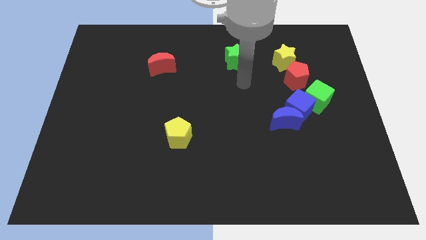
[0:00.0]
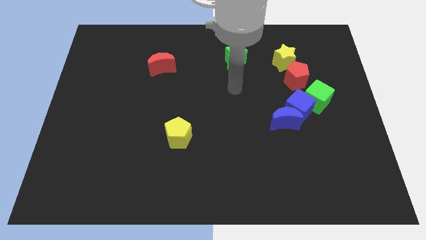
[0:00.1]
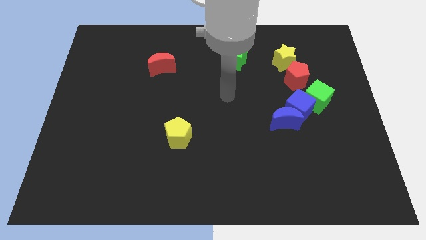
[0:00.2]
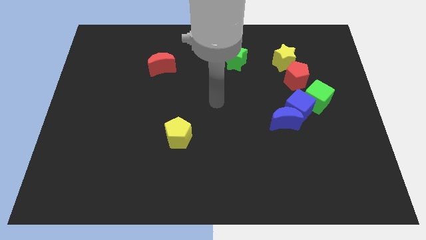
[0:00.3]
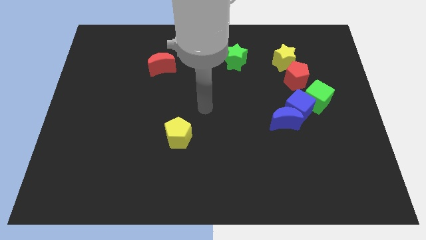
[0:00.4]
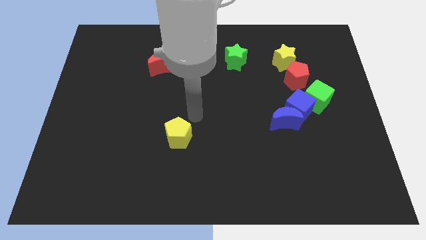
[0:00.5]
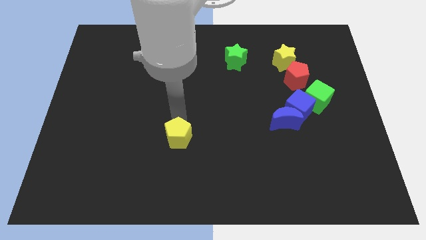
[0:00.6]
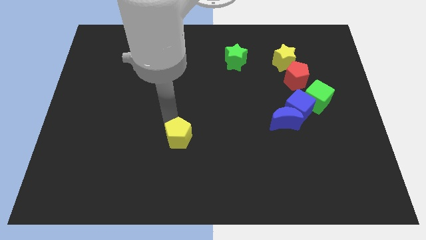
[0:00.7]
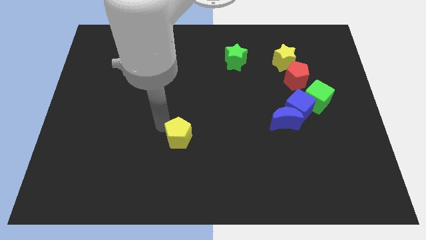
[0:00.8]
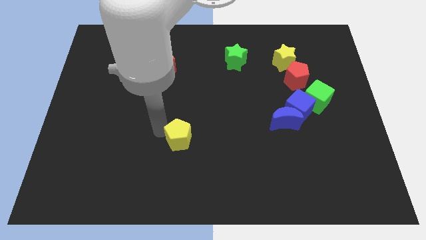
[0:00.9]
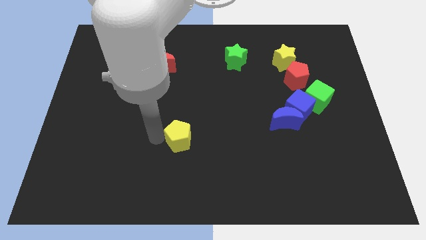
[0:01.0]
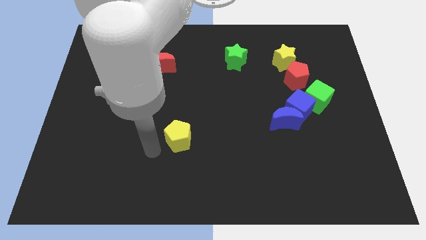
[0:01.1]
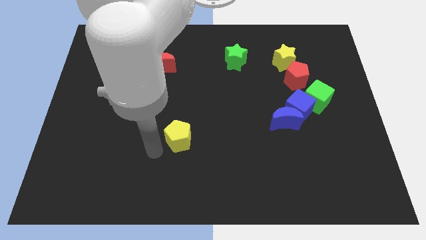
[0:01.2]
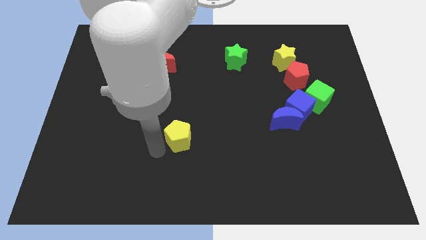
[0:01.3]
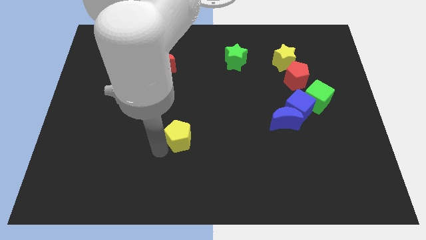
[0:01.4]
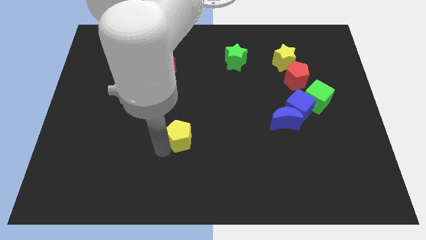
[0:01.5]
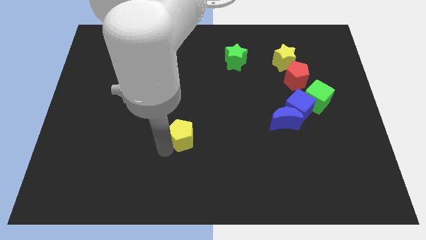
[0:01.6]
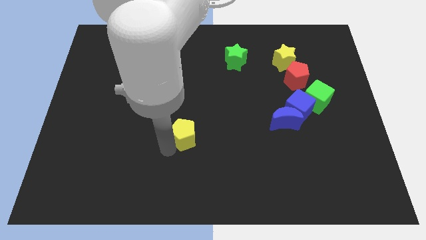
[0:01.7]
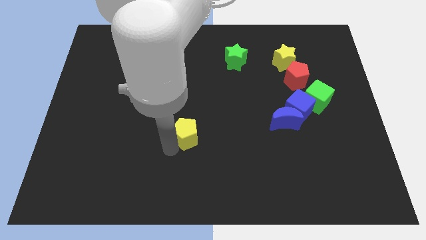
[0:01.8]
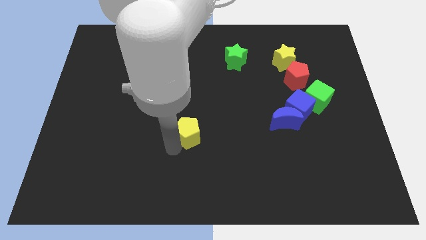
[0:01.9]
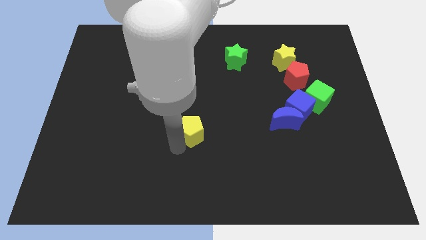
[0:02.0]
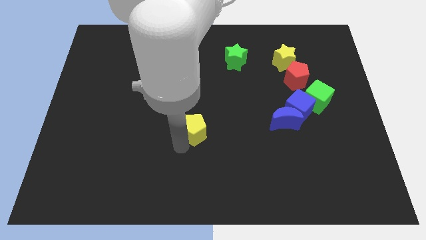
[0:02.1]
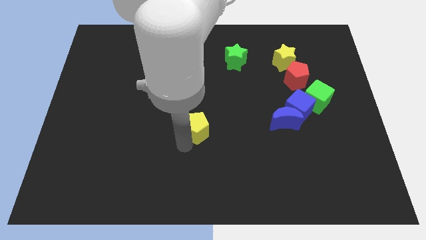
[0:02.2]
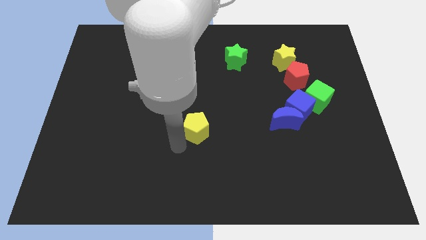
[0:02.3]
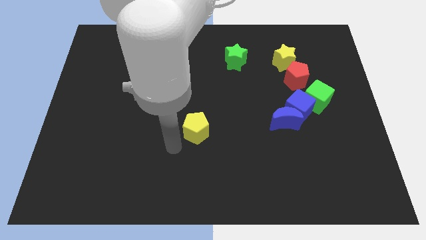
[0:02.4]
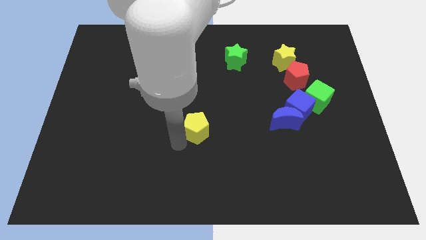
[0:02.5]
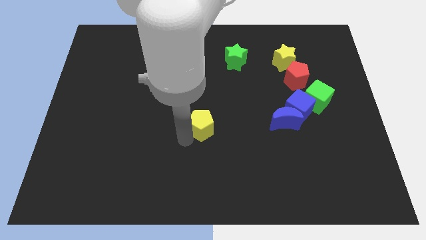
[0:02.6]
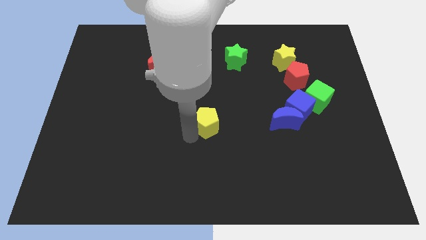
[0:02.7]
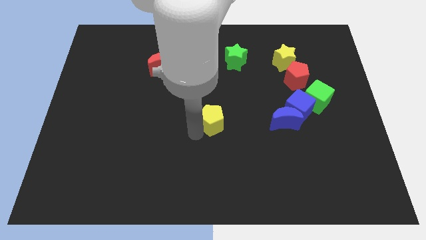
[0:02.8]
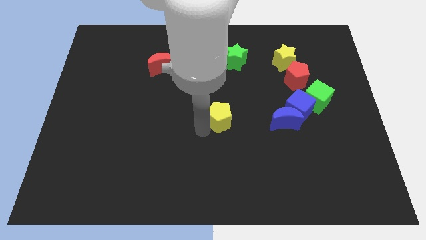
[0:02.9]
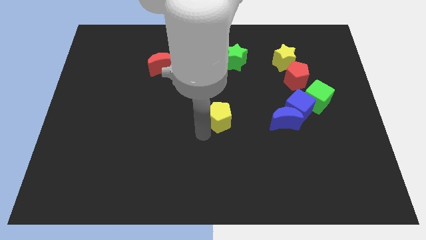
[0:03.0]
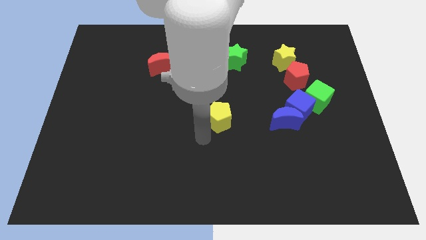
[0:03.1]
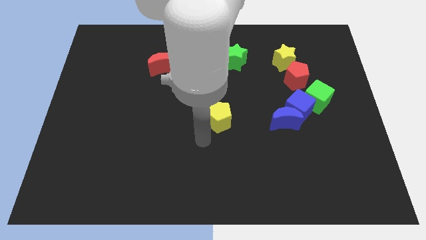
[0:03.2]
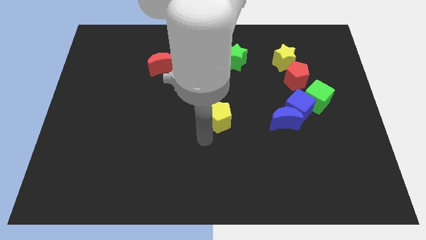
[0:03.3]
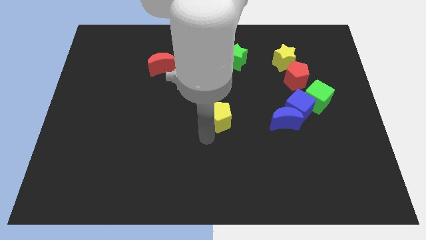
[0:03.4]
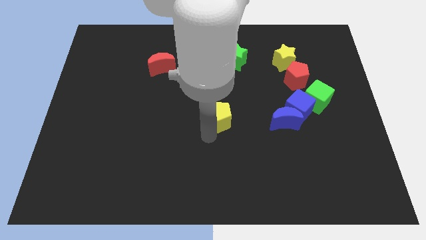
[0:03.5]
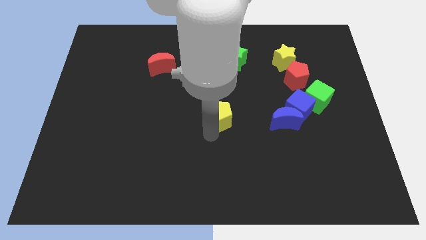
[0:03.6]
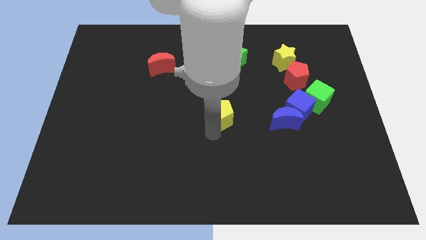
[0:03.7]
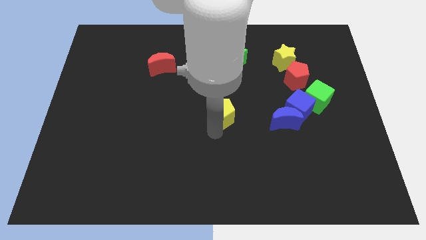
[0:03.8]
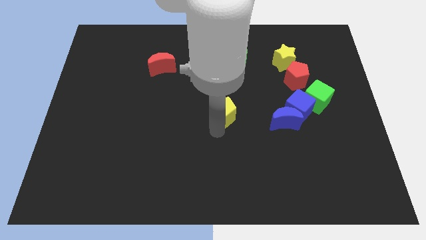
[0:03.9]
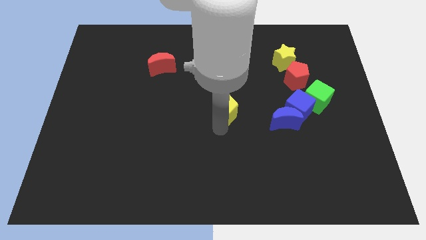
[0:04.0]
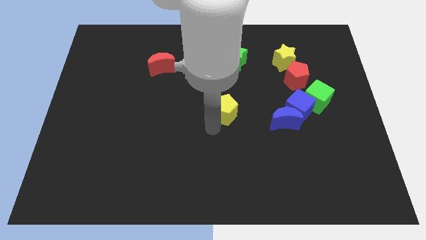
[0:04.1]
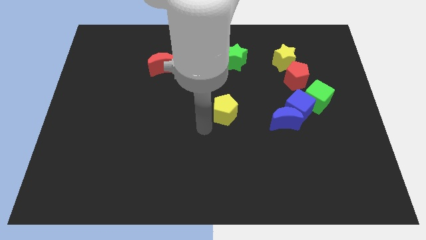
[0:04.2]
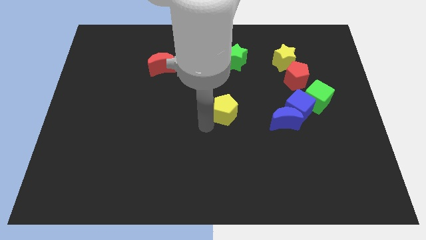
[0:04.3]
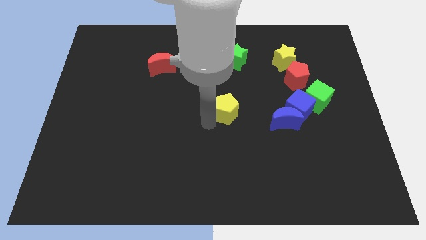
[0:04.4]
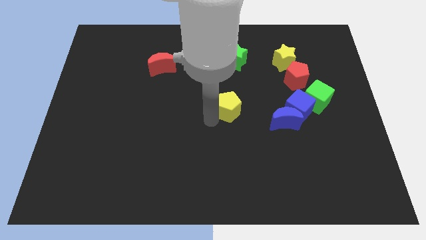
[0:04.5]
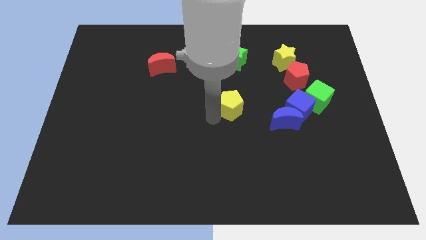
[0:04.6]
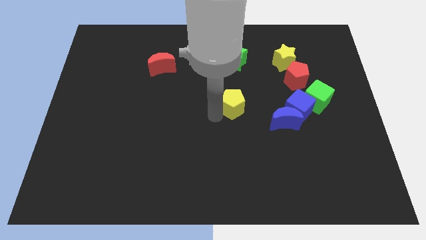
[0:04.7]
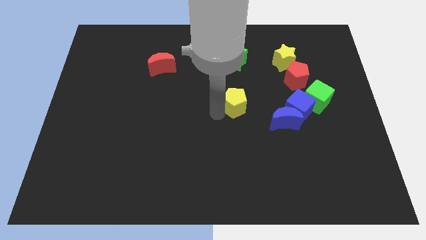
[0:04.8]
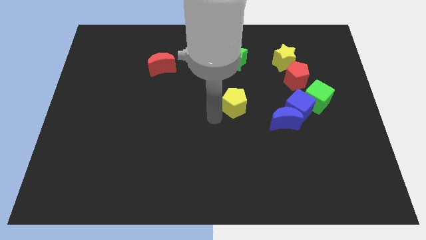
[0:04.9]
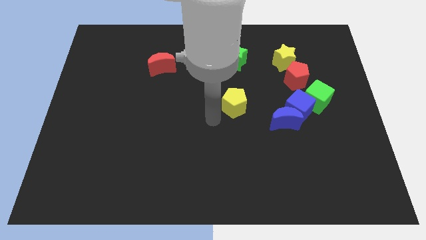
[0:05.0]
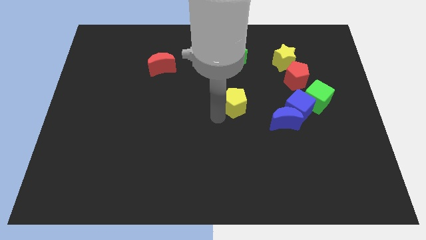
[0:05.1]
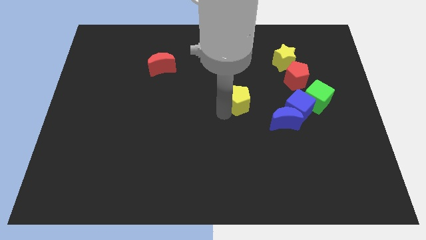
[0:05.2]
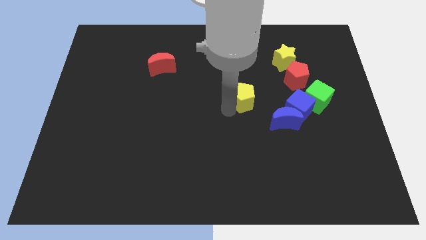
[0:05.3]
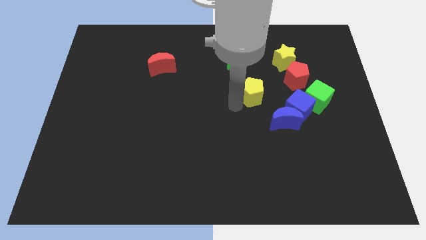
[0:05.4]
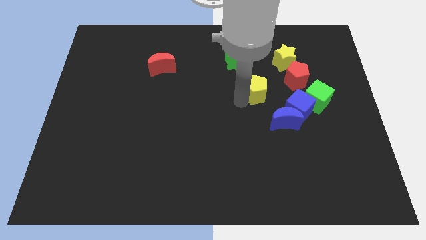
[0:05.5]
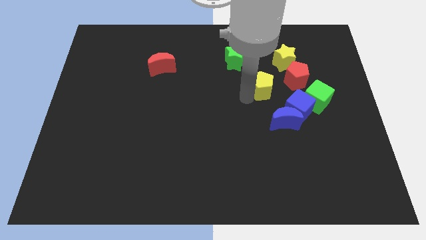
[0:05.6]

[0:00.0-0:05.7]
move the yellow pentagon to the top of the blue moon

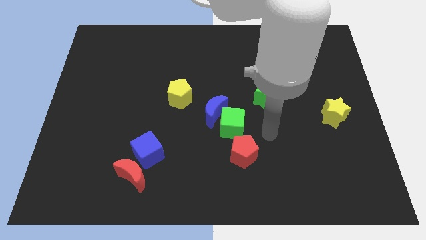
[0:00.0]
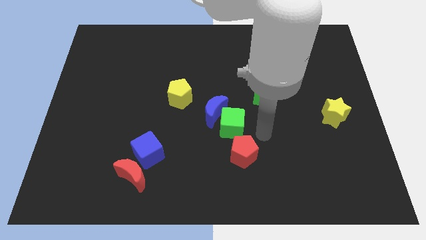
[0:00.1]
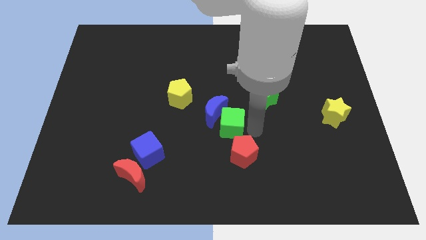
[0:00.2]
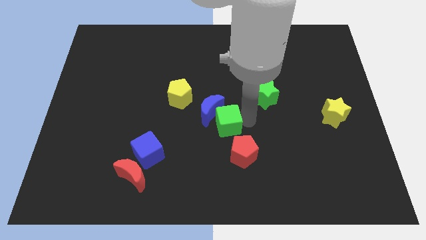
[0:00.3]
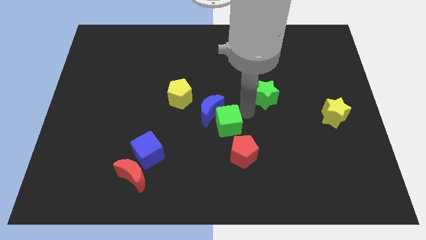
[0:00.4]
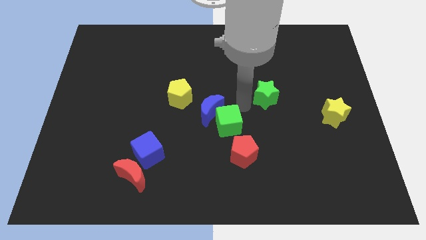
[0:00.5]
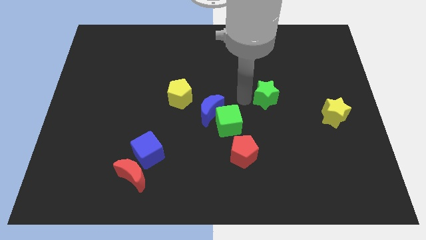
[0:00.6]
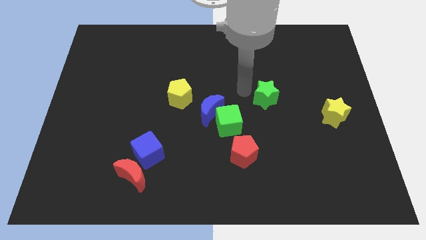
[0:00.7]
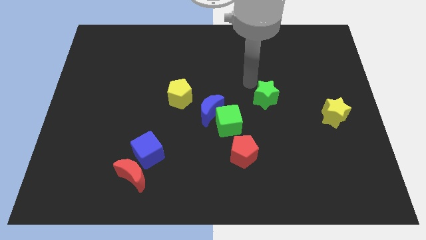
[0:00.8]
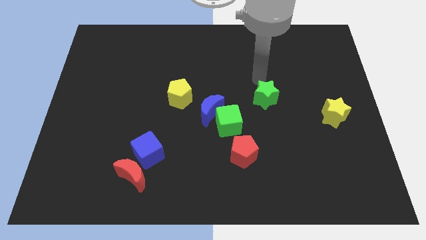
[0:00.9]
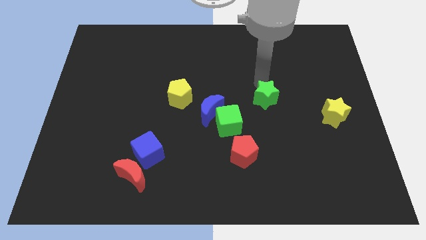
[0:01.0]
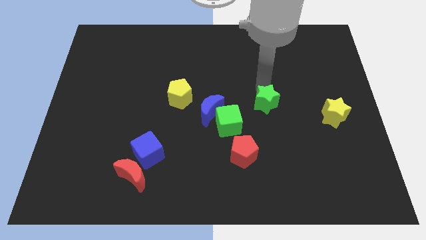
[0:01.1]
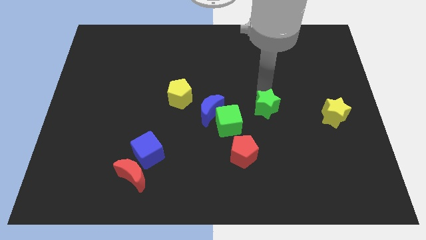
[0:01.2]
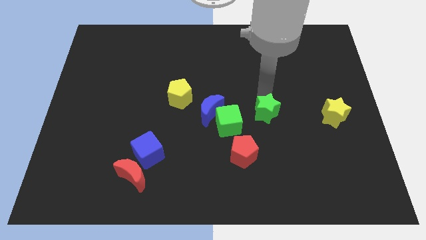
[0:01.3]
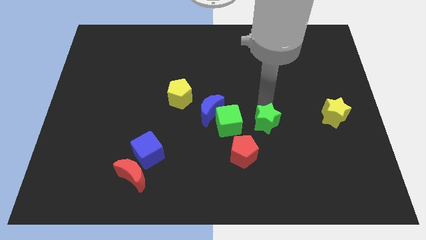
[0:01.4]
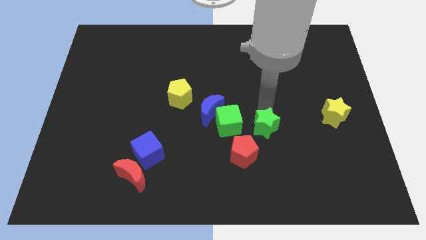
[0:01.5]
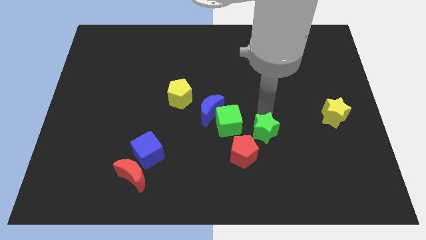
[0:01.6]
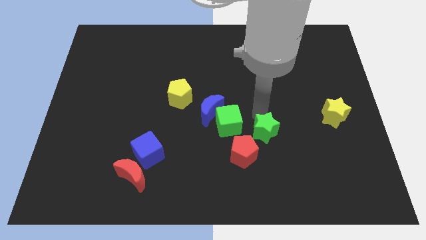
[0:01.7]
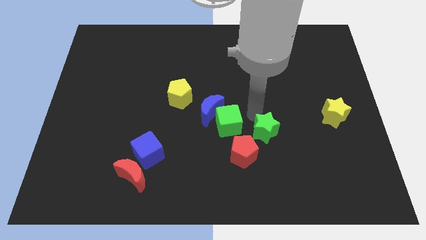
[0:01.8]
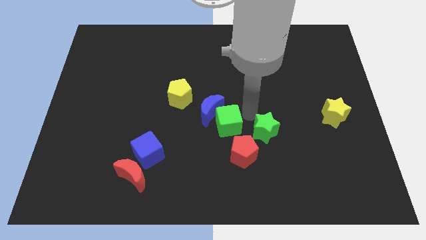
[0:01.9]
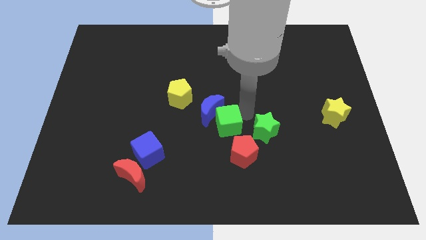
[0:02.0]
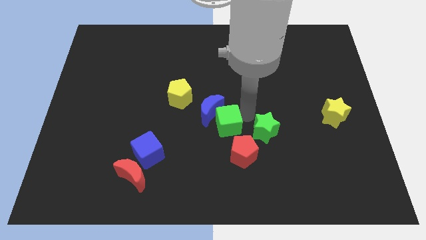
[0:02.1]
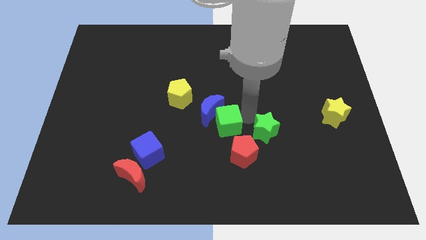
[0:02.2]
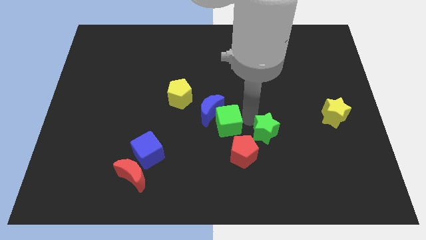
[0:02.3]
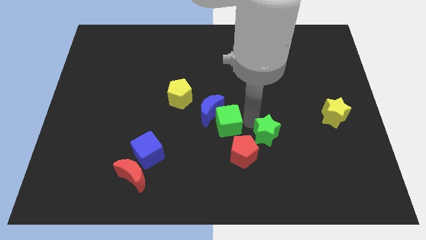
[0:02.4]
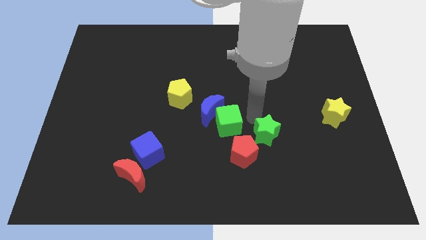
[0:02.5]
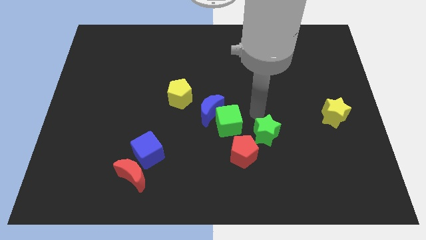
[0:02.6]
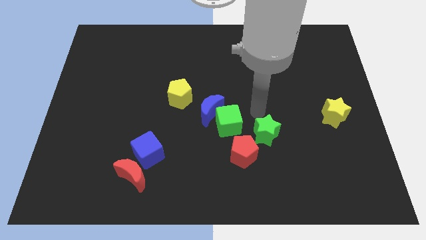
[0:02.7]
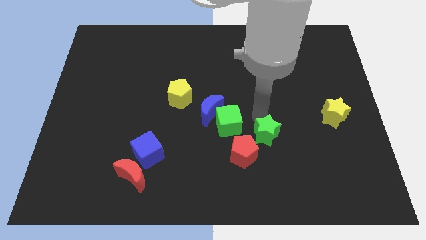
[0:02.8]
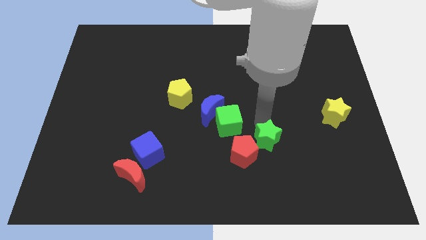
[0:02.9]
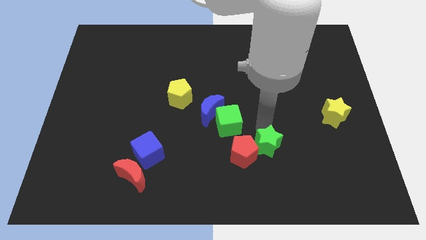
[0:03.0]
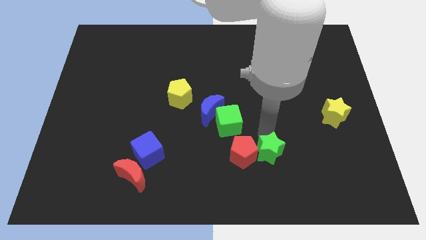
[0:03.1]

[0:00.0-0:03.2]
push the green star diagonally down and to the right of the red pentagon
